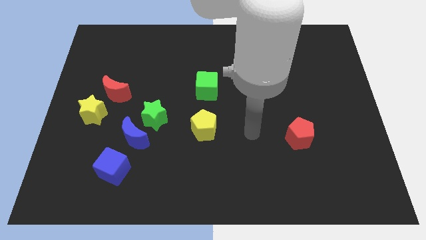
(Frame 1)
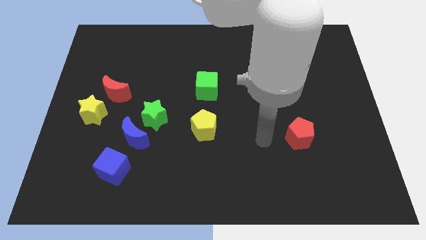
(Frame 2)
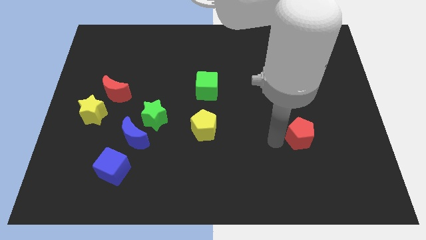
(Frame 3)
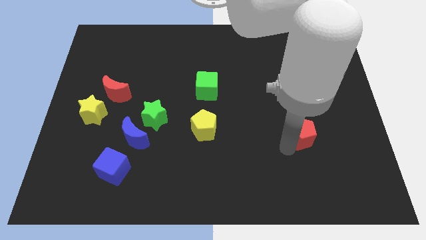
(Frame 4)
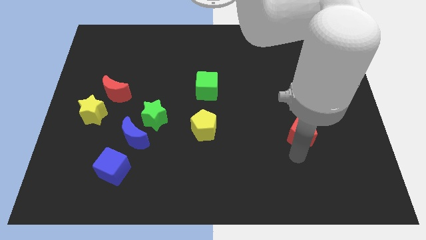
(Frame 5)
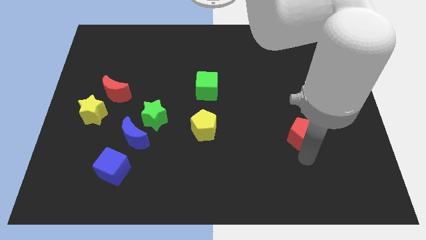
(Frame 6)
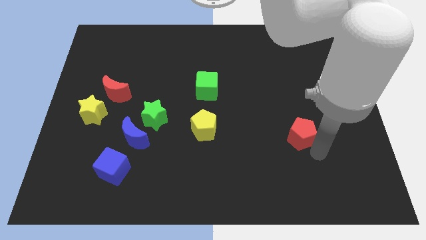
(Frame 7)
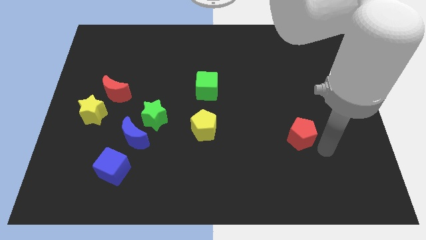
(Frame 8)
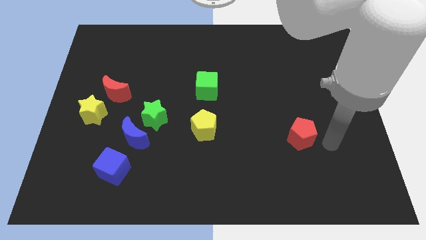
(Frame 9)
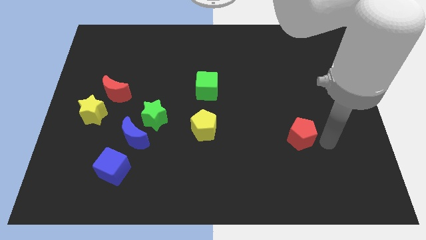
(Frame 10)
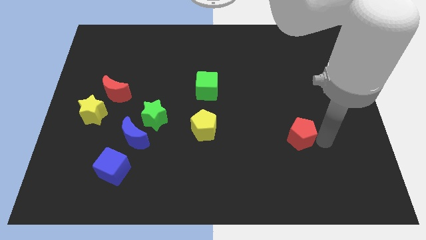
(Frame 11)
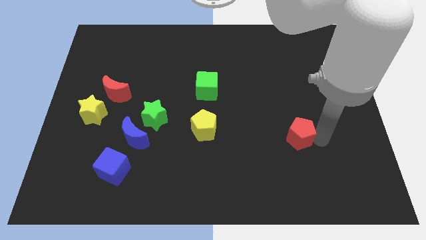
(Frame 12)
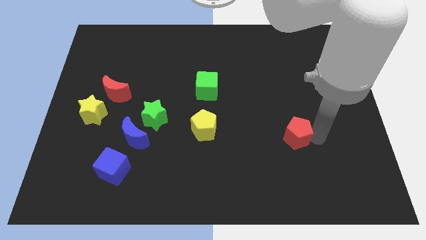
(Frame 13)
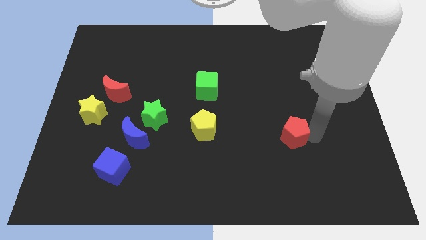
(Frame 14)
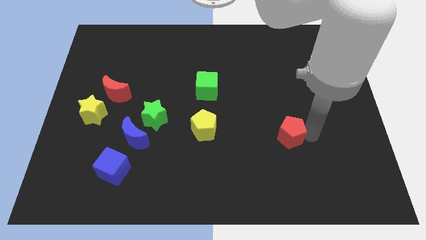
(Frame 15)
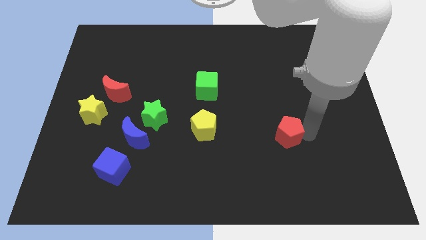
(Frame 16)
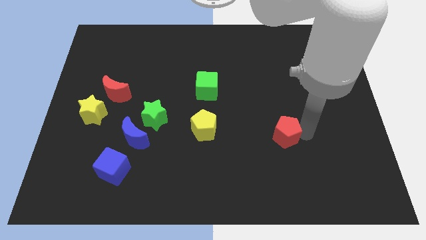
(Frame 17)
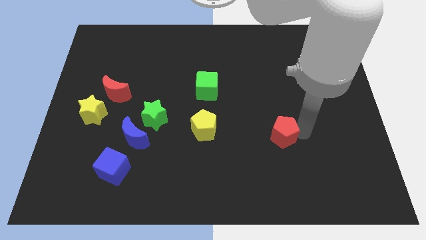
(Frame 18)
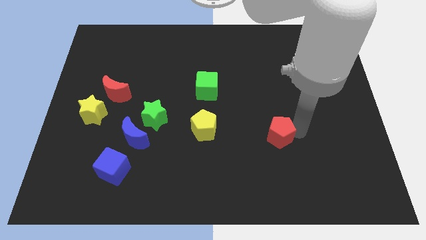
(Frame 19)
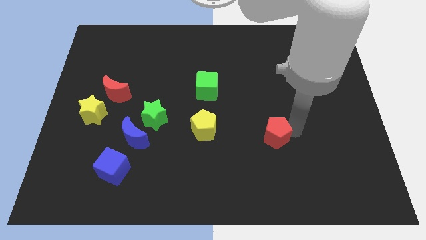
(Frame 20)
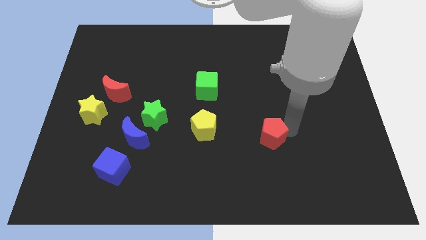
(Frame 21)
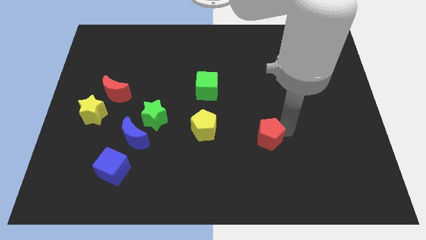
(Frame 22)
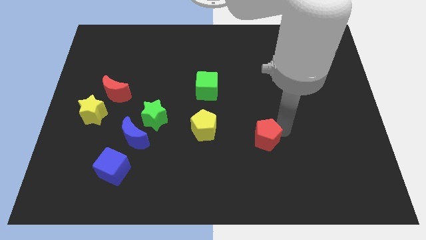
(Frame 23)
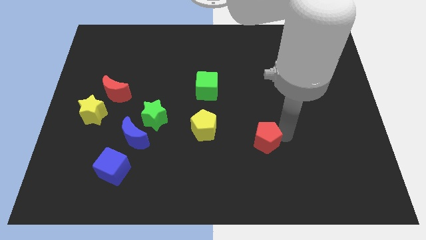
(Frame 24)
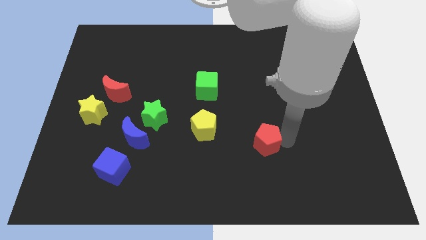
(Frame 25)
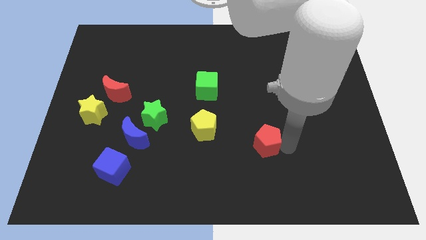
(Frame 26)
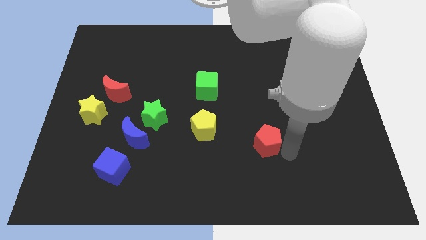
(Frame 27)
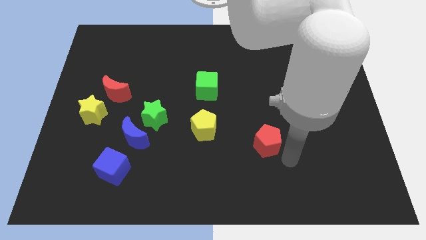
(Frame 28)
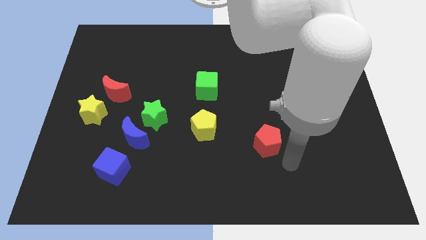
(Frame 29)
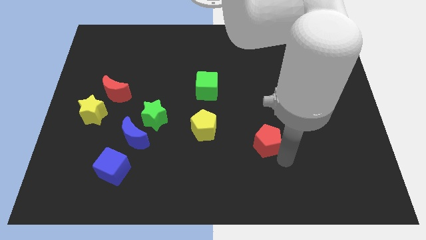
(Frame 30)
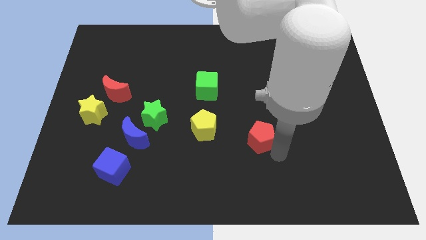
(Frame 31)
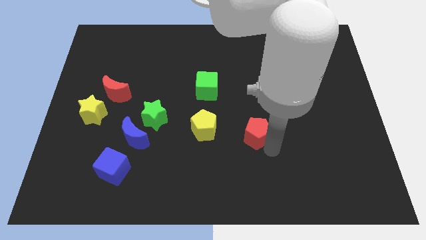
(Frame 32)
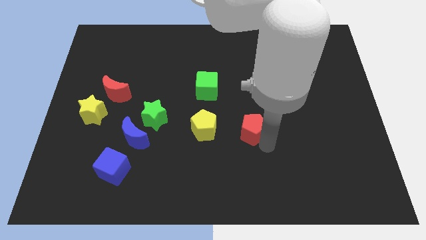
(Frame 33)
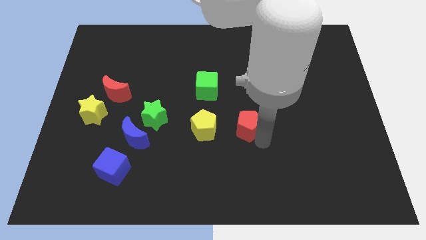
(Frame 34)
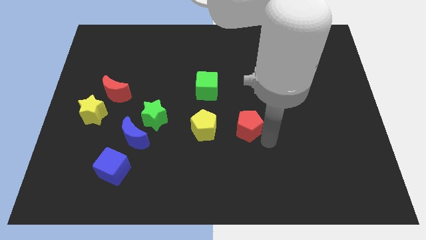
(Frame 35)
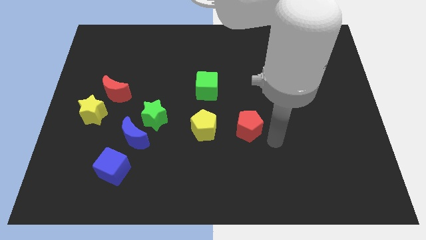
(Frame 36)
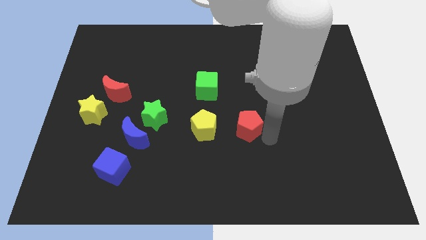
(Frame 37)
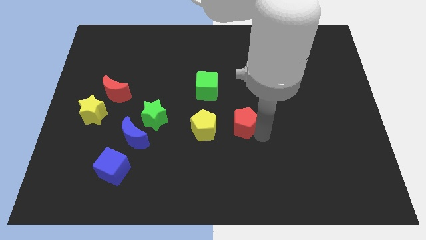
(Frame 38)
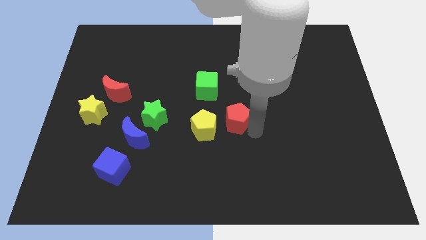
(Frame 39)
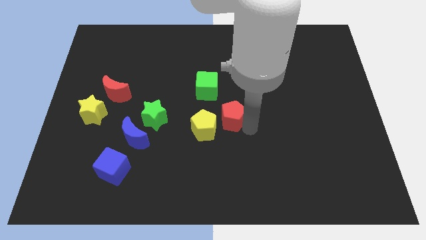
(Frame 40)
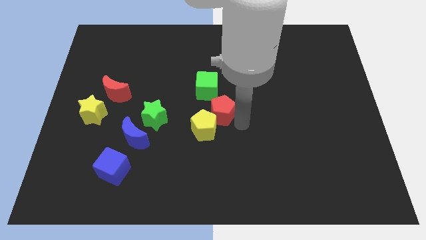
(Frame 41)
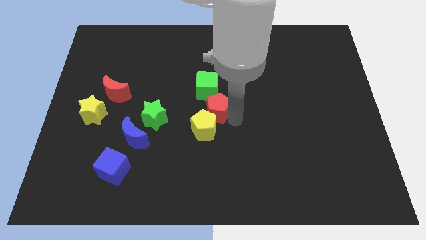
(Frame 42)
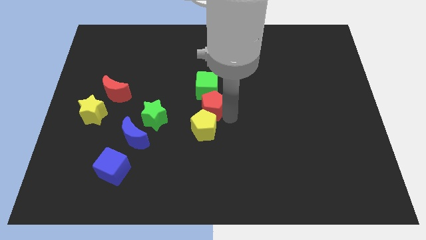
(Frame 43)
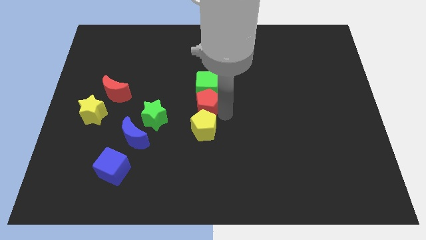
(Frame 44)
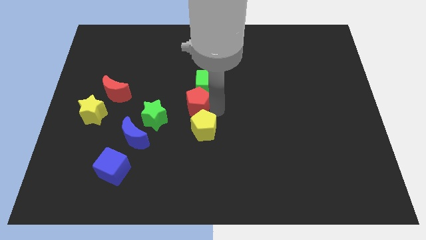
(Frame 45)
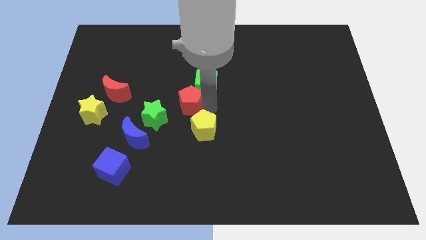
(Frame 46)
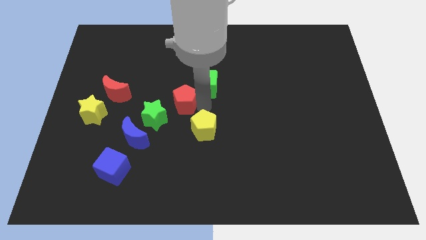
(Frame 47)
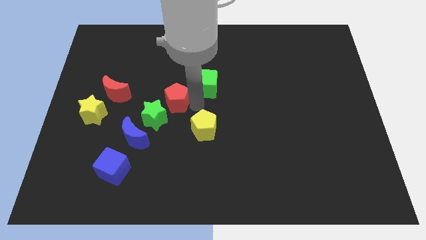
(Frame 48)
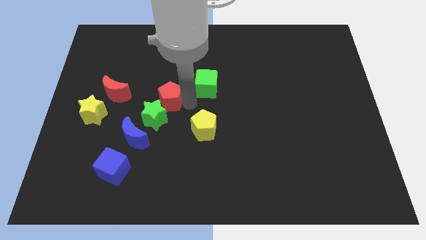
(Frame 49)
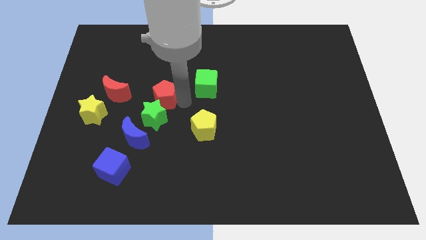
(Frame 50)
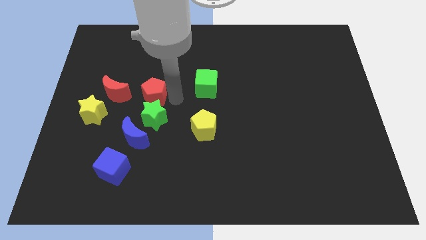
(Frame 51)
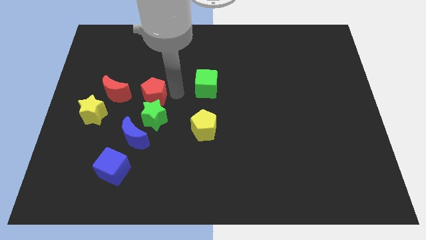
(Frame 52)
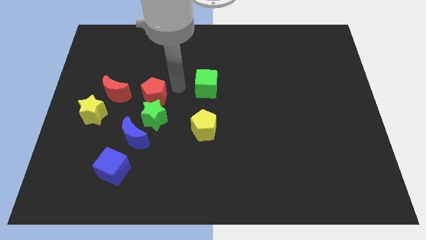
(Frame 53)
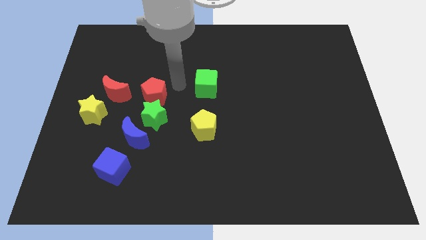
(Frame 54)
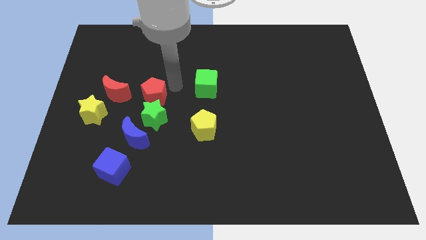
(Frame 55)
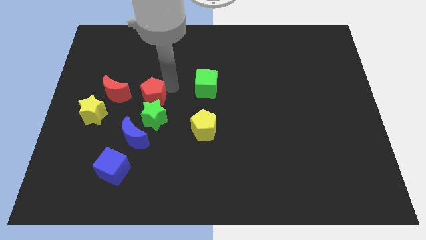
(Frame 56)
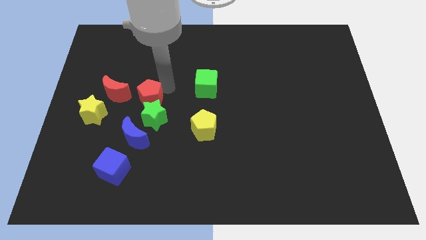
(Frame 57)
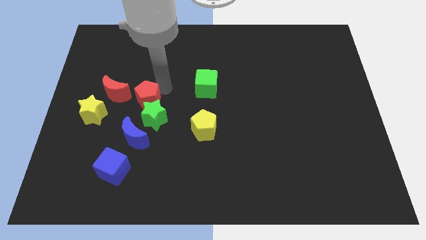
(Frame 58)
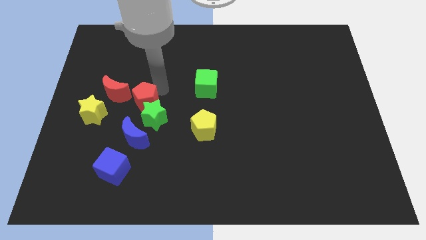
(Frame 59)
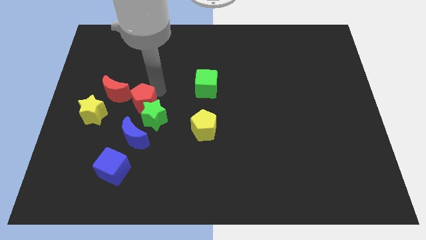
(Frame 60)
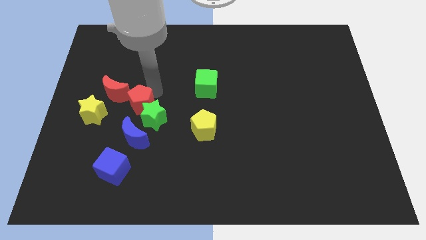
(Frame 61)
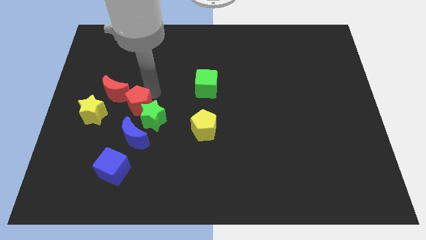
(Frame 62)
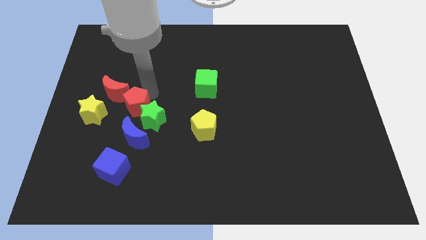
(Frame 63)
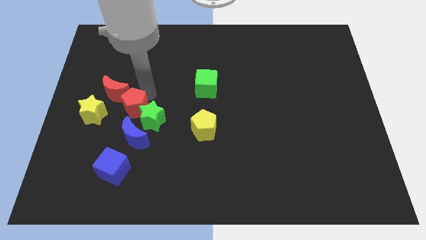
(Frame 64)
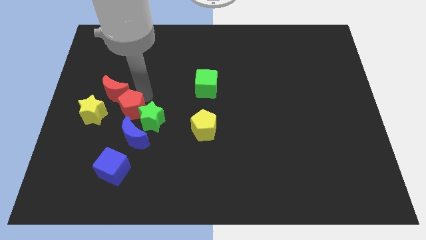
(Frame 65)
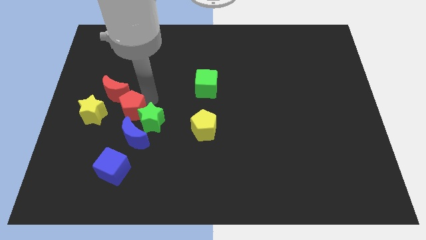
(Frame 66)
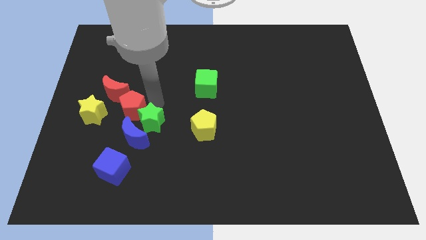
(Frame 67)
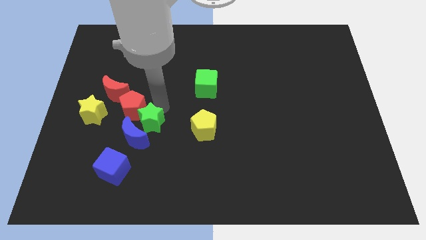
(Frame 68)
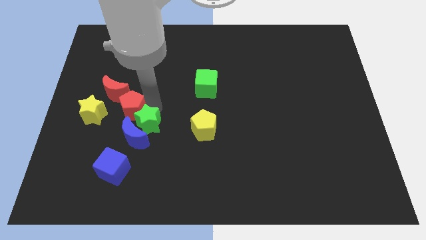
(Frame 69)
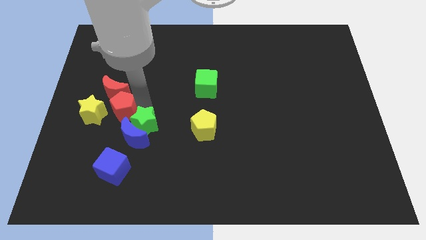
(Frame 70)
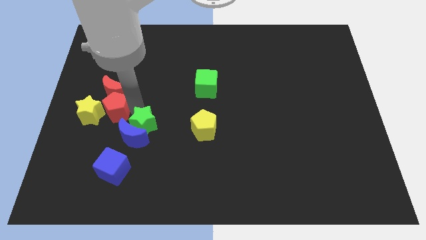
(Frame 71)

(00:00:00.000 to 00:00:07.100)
push the red pentagon close to the yellow star
